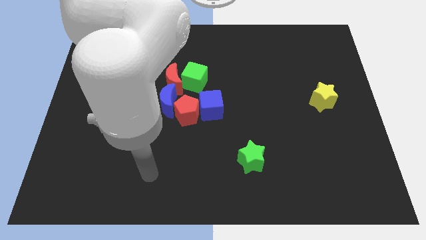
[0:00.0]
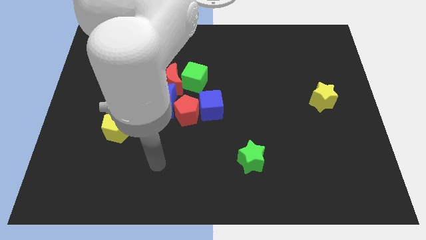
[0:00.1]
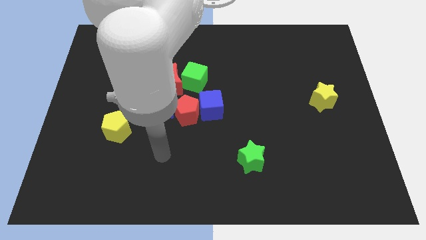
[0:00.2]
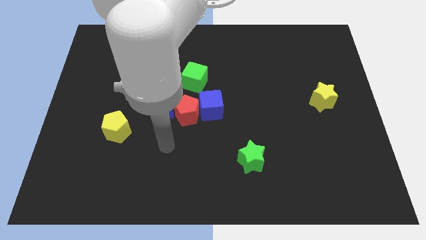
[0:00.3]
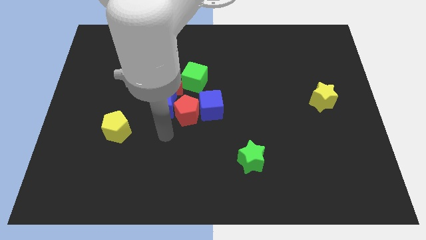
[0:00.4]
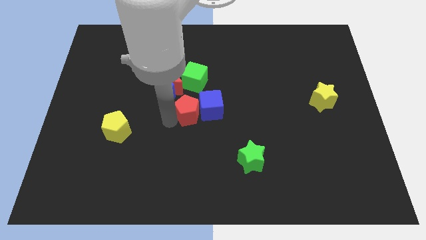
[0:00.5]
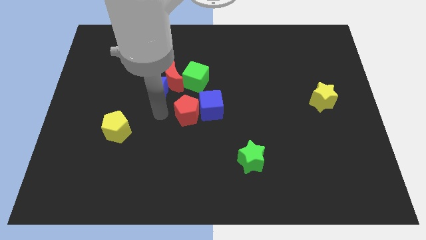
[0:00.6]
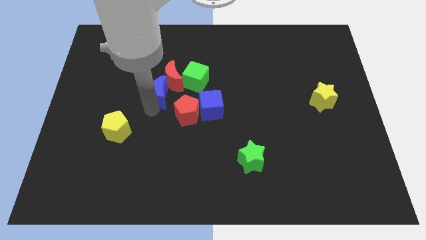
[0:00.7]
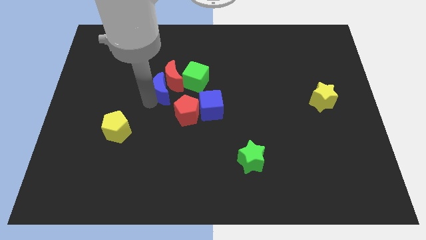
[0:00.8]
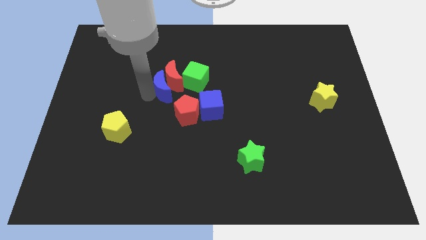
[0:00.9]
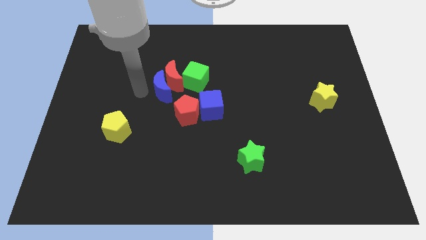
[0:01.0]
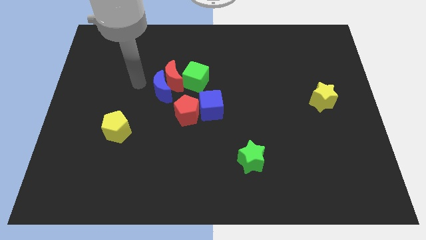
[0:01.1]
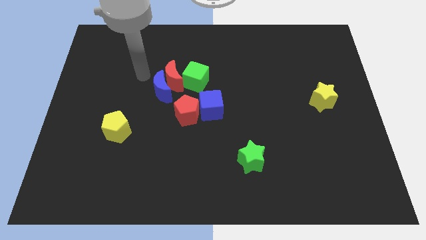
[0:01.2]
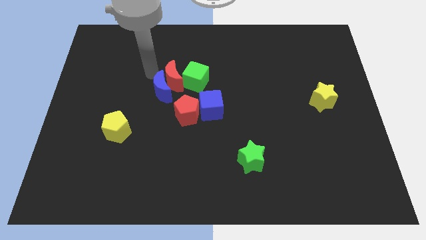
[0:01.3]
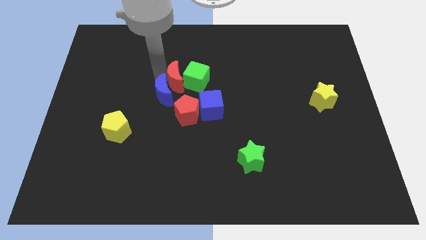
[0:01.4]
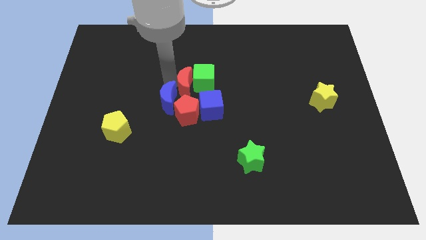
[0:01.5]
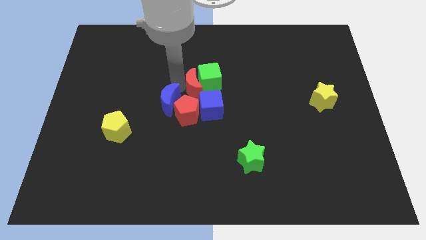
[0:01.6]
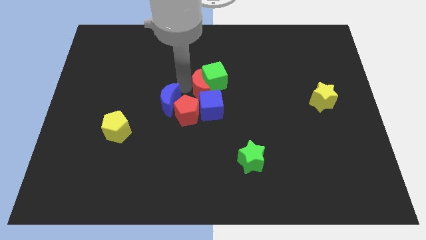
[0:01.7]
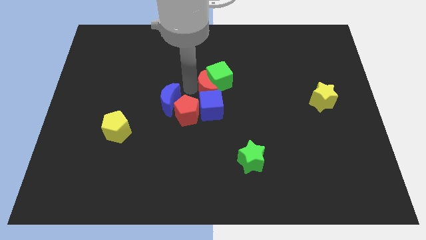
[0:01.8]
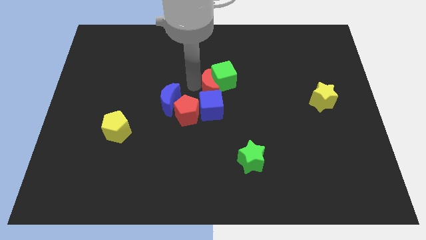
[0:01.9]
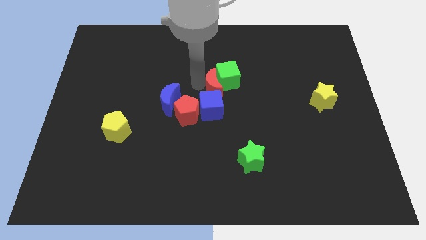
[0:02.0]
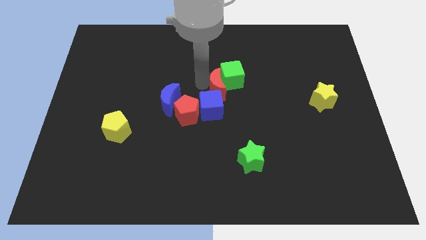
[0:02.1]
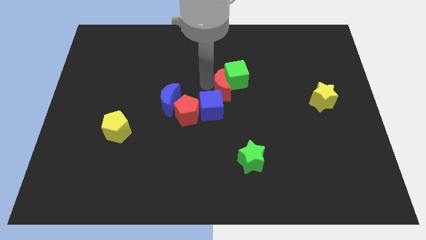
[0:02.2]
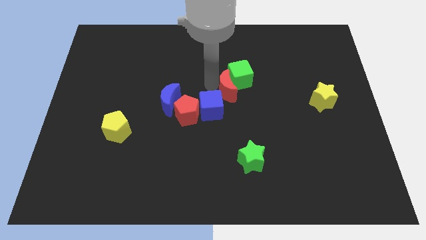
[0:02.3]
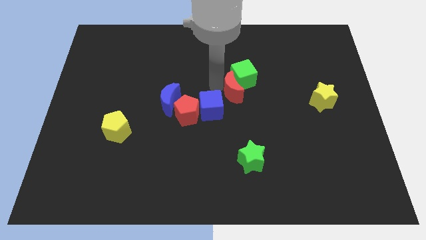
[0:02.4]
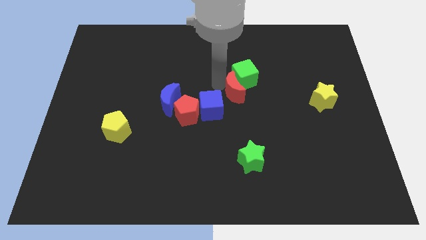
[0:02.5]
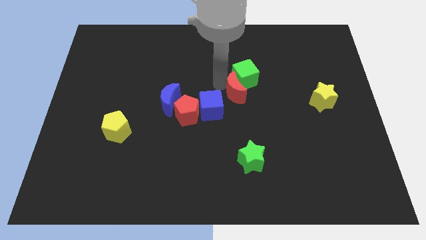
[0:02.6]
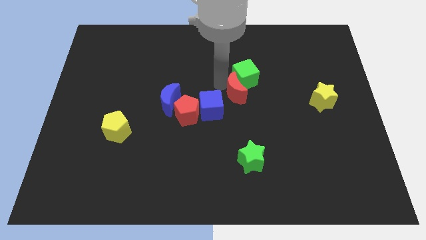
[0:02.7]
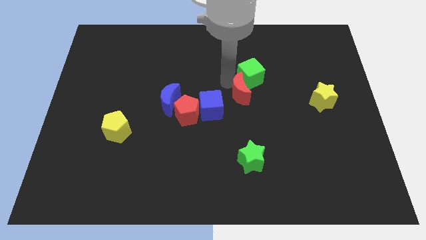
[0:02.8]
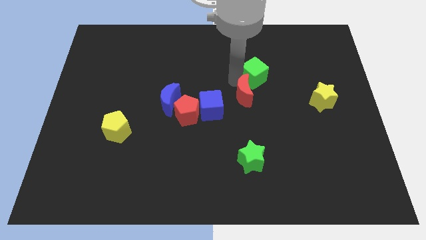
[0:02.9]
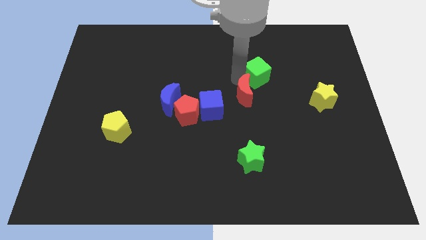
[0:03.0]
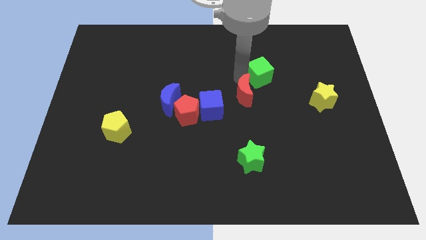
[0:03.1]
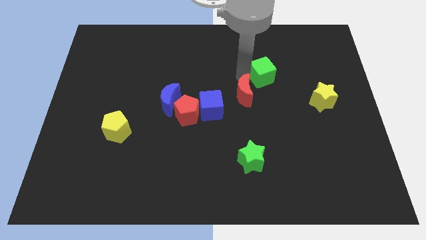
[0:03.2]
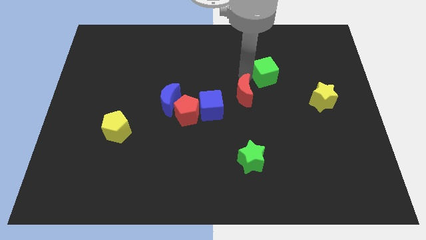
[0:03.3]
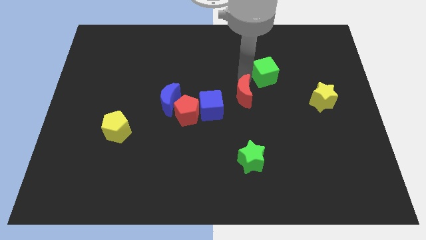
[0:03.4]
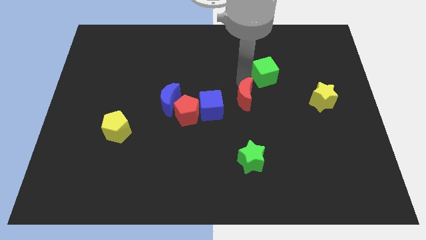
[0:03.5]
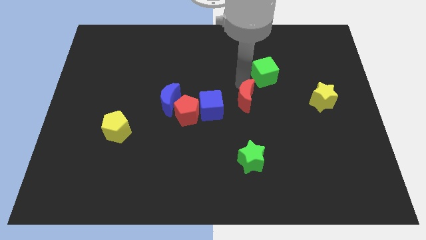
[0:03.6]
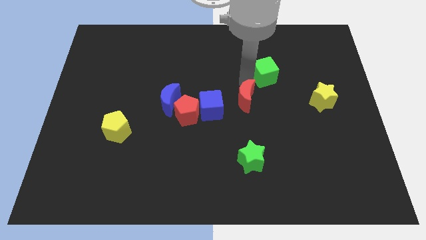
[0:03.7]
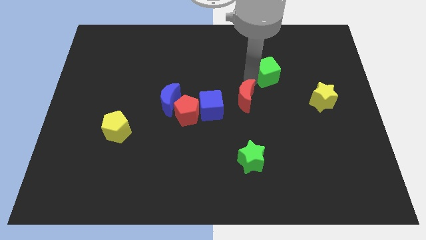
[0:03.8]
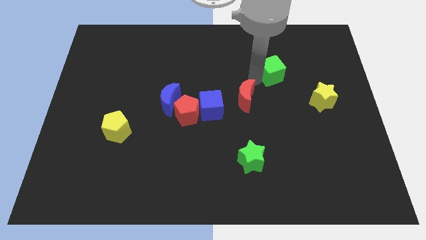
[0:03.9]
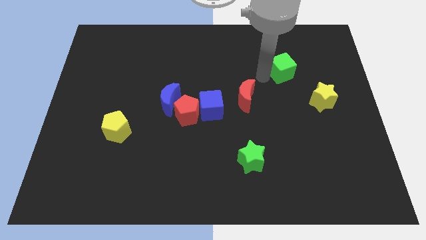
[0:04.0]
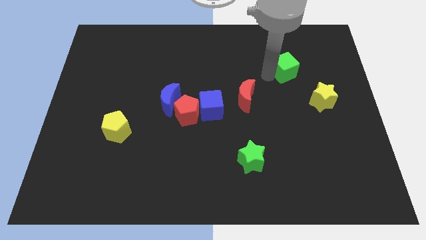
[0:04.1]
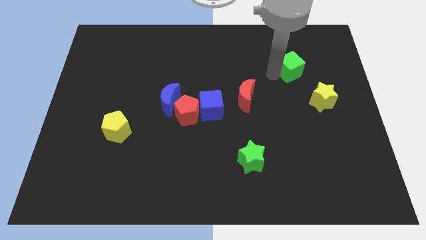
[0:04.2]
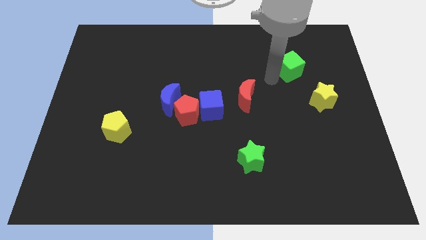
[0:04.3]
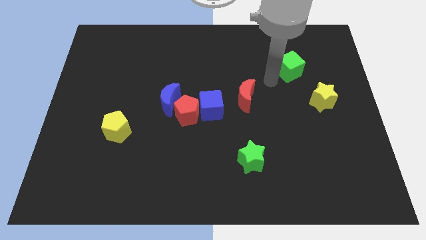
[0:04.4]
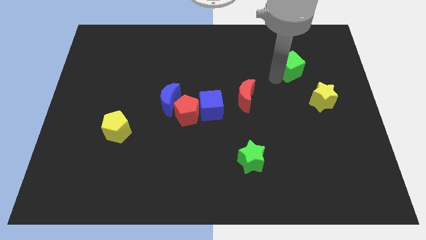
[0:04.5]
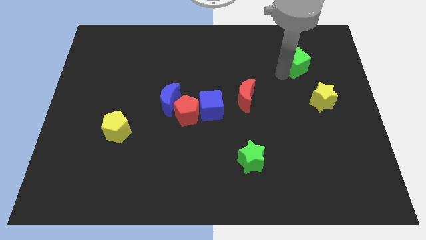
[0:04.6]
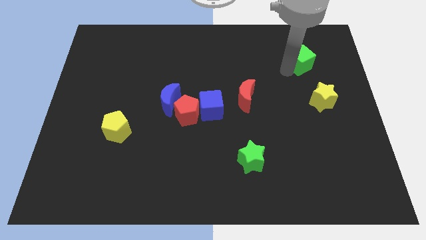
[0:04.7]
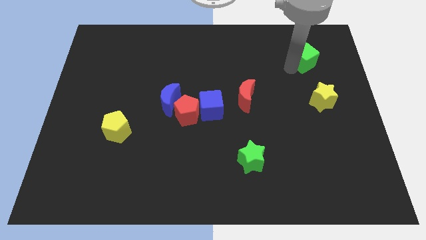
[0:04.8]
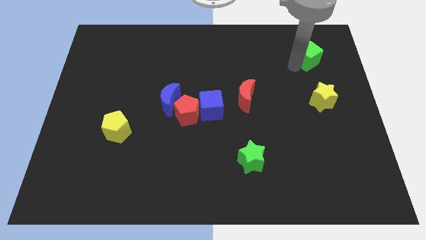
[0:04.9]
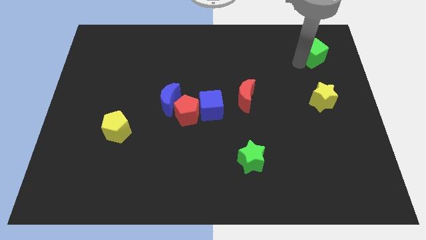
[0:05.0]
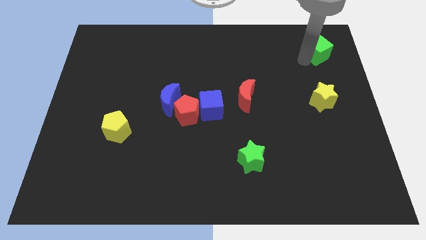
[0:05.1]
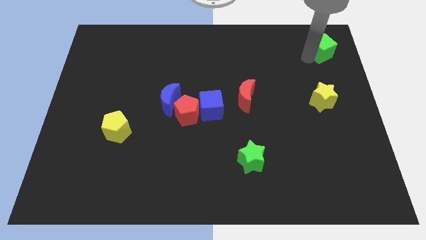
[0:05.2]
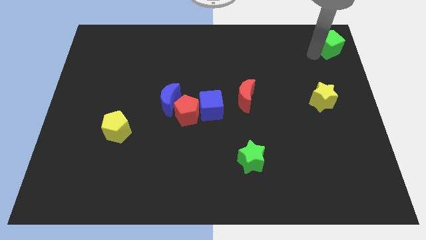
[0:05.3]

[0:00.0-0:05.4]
slide the green cube to the top right corner
